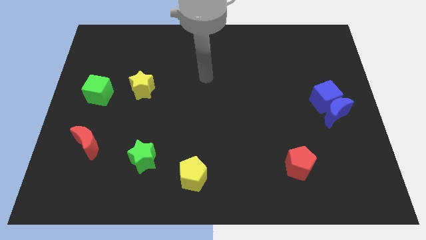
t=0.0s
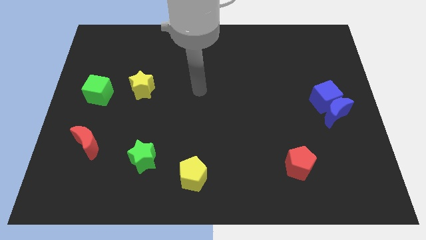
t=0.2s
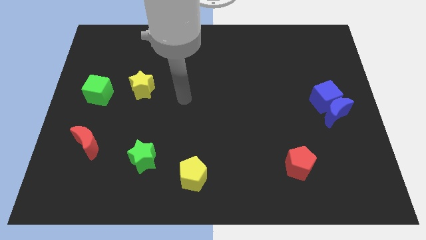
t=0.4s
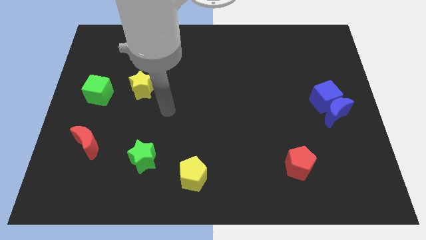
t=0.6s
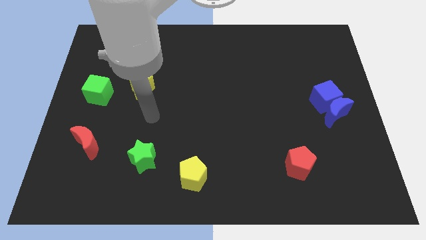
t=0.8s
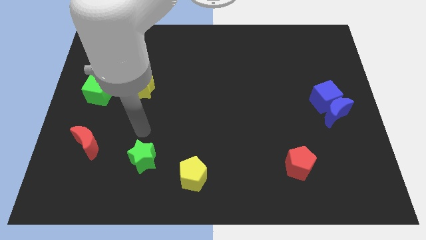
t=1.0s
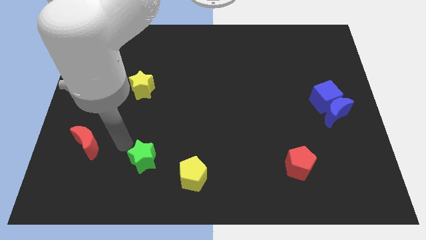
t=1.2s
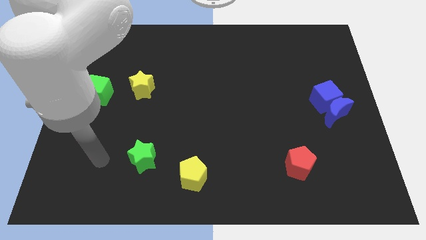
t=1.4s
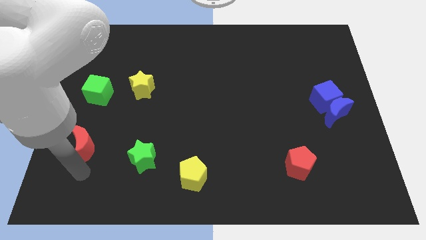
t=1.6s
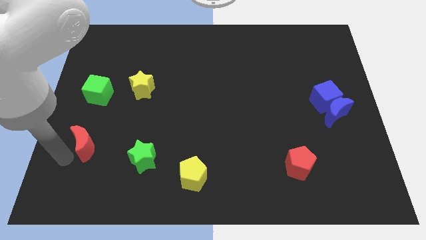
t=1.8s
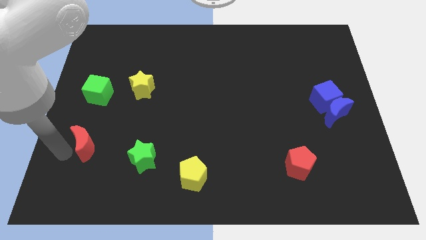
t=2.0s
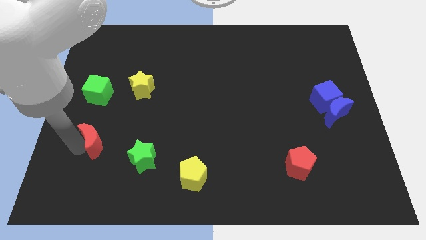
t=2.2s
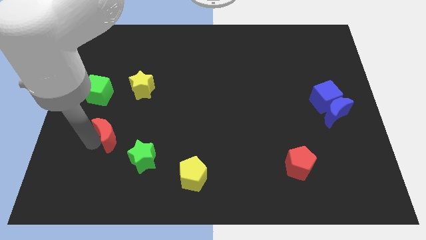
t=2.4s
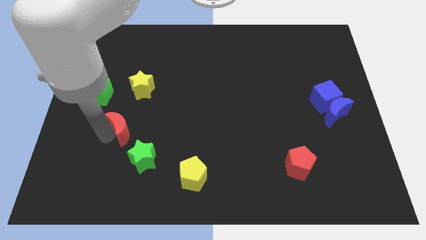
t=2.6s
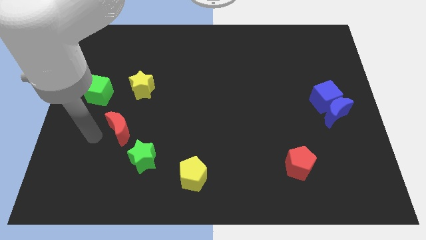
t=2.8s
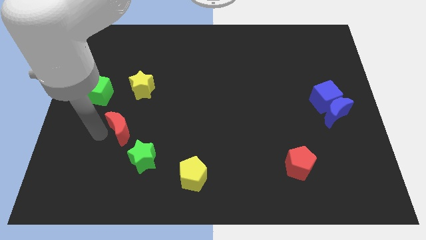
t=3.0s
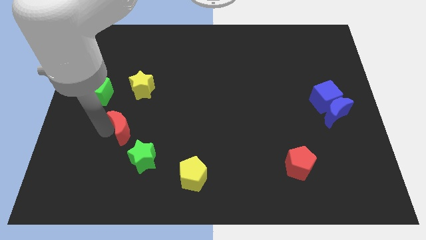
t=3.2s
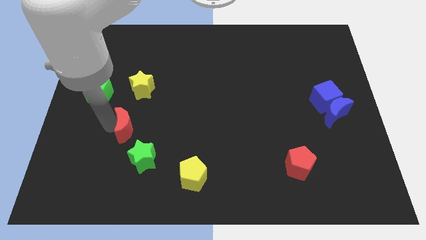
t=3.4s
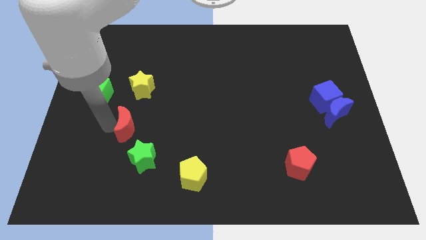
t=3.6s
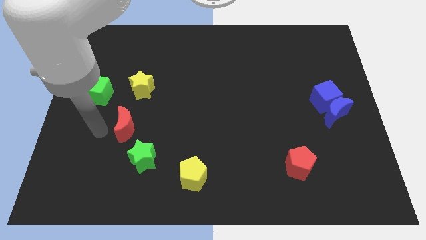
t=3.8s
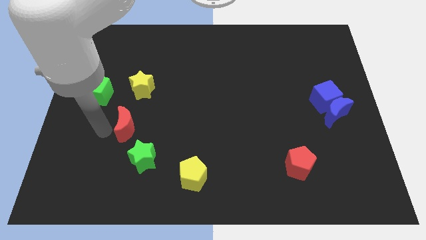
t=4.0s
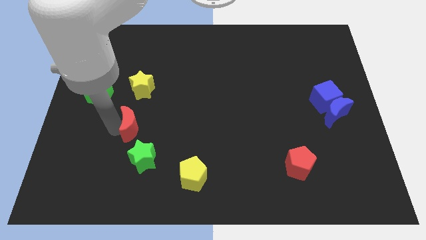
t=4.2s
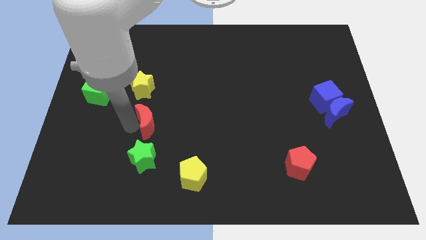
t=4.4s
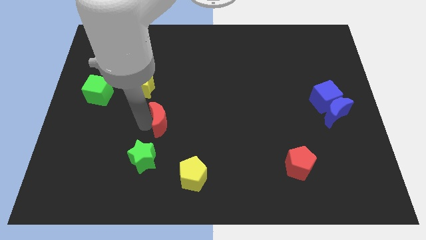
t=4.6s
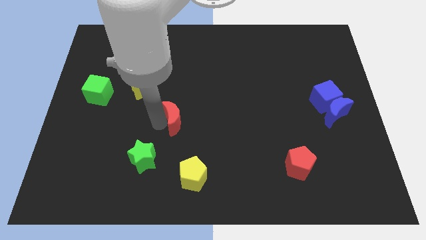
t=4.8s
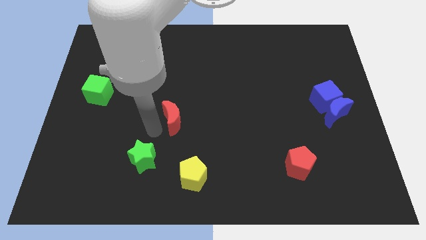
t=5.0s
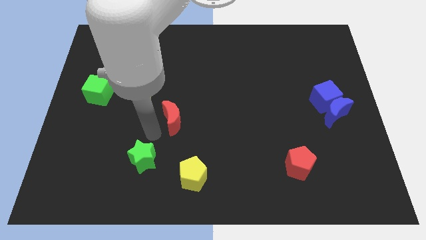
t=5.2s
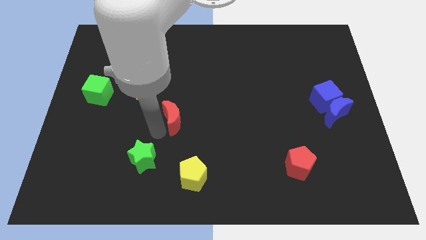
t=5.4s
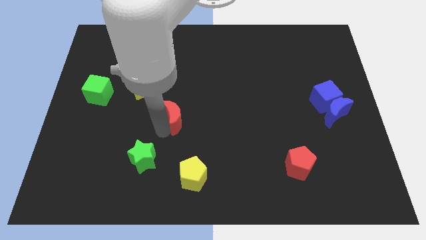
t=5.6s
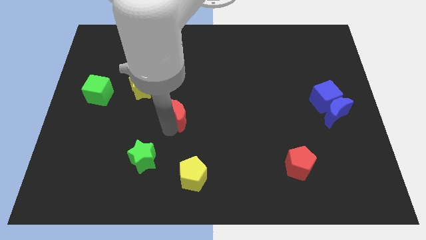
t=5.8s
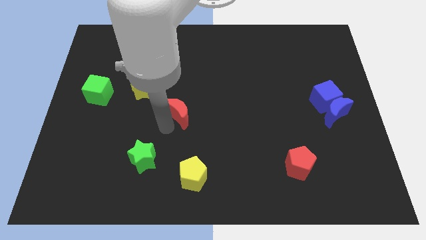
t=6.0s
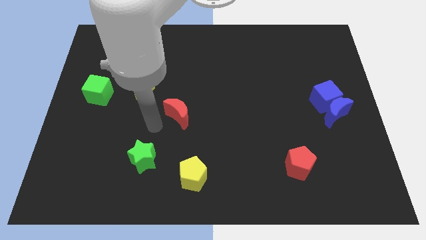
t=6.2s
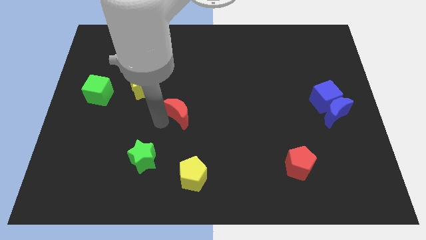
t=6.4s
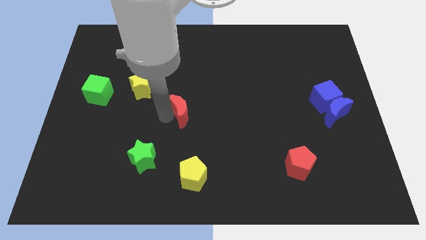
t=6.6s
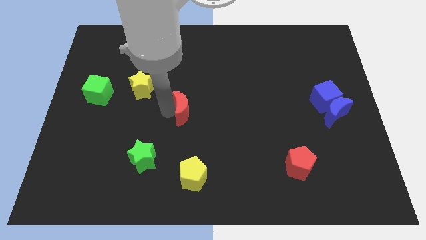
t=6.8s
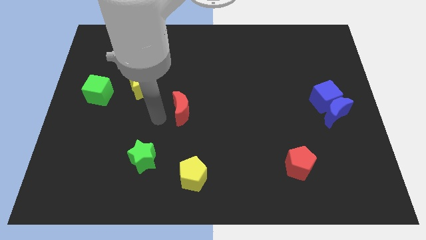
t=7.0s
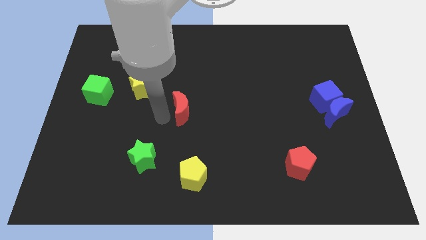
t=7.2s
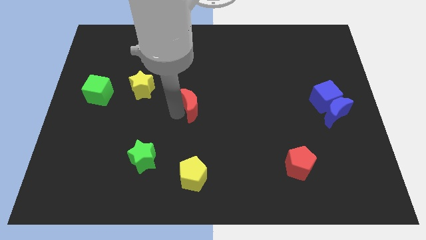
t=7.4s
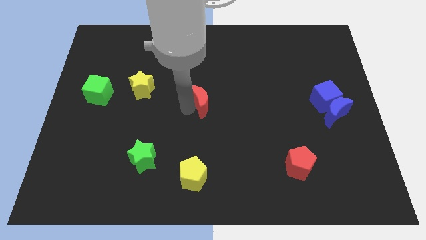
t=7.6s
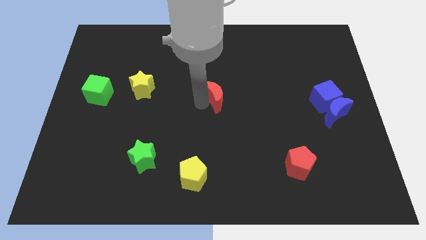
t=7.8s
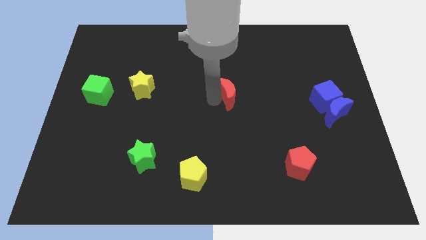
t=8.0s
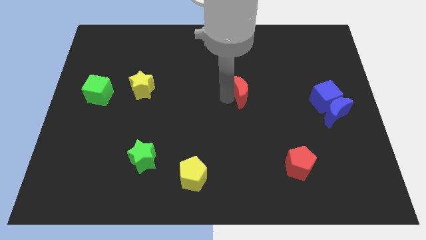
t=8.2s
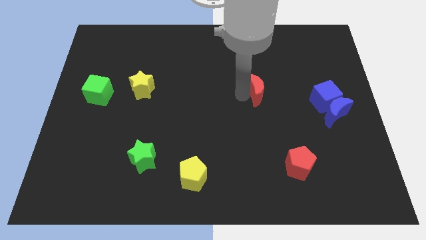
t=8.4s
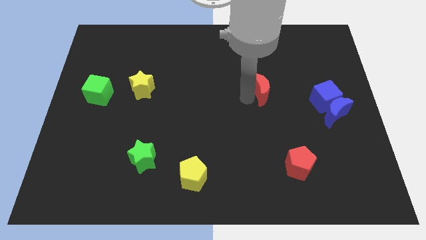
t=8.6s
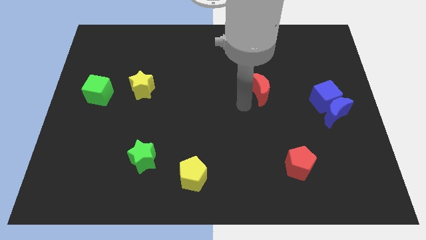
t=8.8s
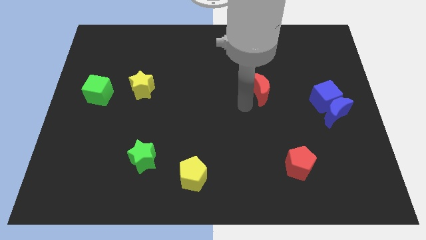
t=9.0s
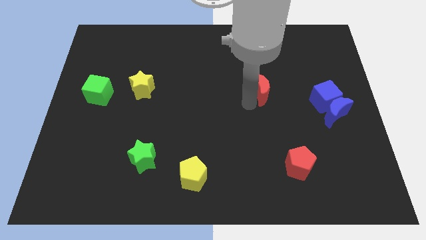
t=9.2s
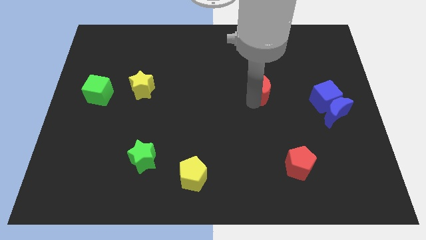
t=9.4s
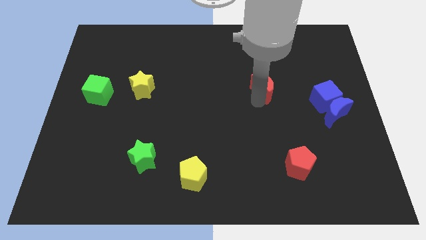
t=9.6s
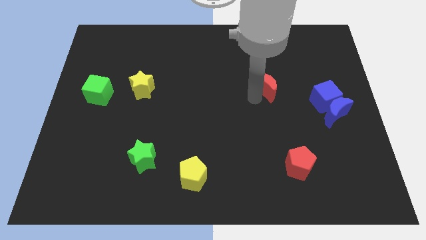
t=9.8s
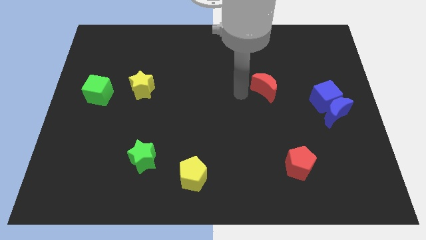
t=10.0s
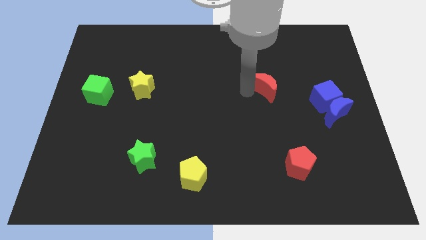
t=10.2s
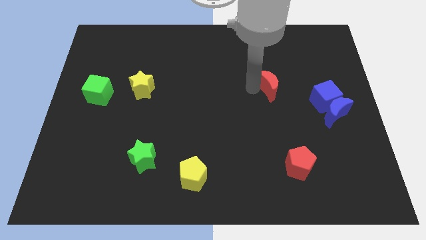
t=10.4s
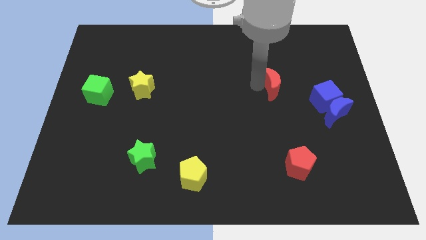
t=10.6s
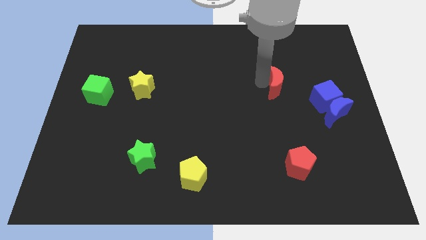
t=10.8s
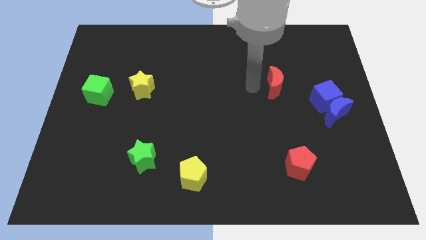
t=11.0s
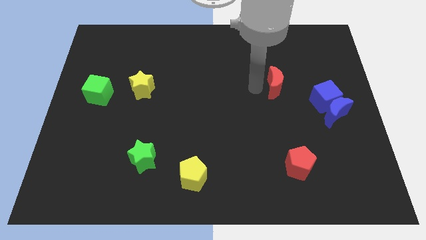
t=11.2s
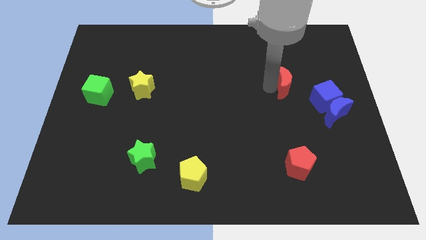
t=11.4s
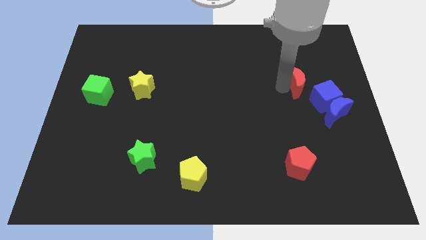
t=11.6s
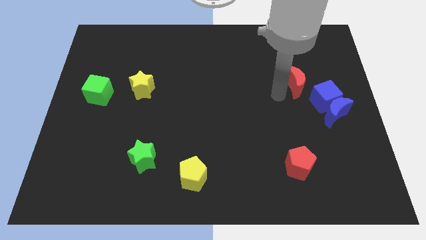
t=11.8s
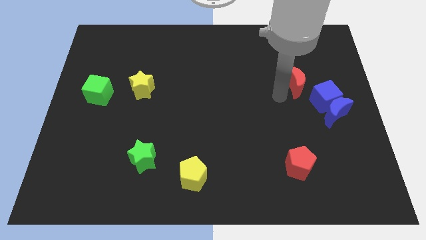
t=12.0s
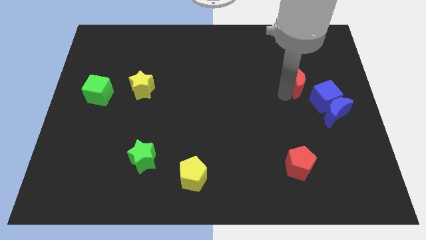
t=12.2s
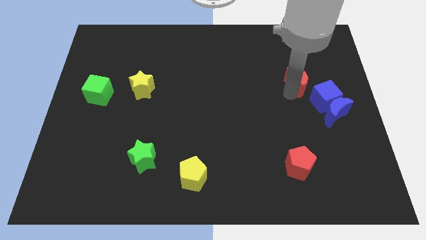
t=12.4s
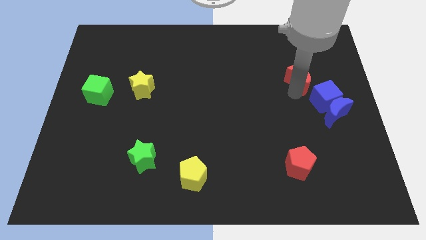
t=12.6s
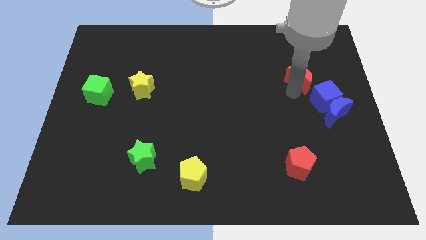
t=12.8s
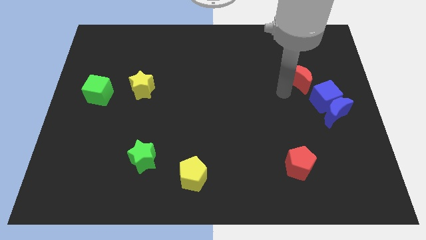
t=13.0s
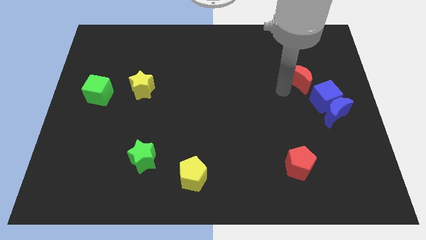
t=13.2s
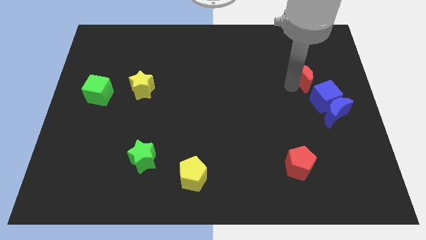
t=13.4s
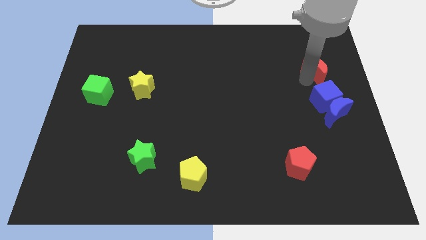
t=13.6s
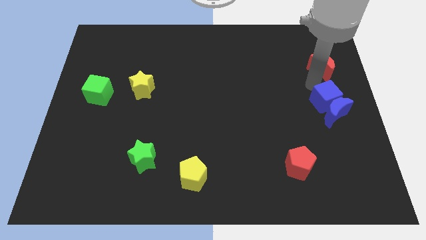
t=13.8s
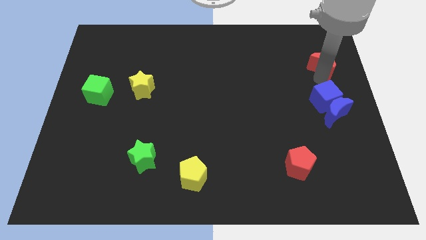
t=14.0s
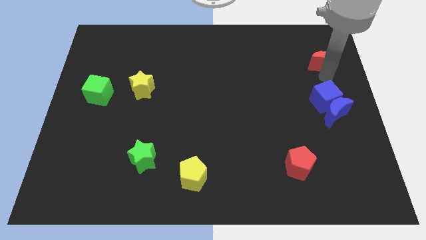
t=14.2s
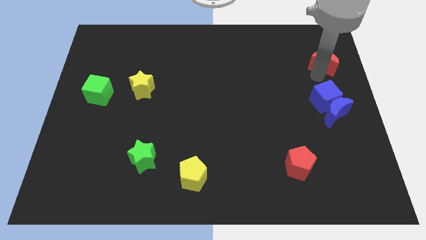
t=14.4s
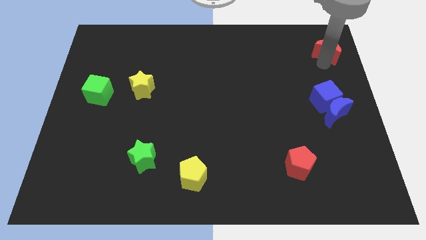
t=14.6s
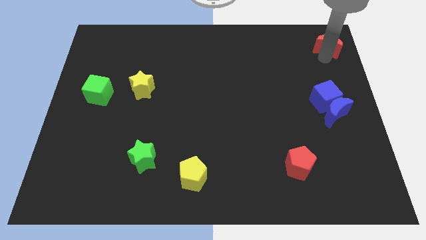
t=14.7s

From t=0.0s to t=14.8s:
push the red moon to the upper right corner
